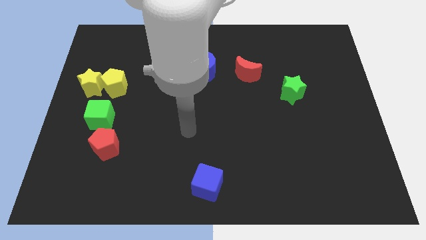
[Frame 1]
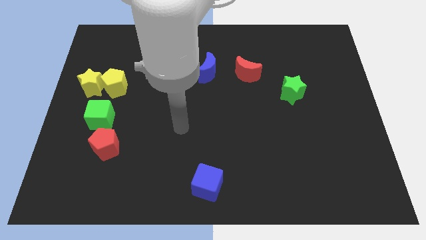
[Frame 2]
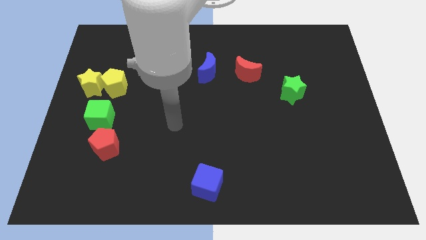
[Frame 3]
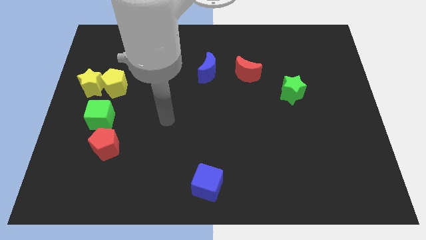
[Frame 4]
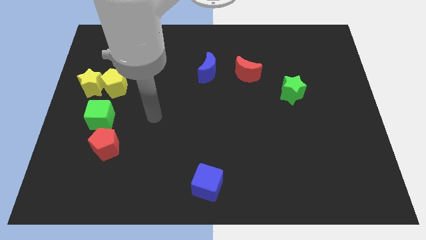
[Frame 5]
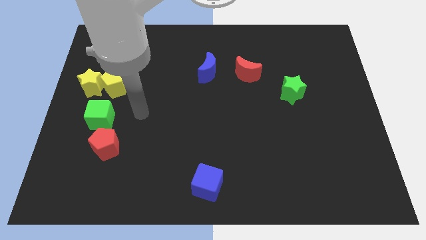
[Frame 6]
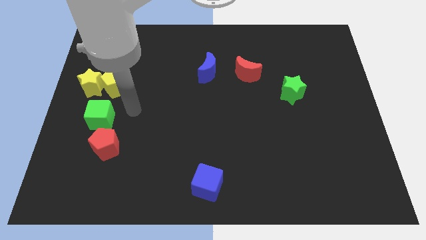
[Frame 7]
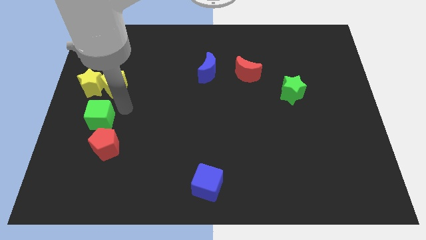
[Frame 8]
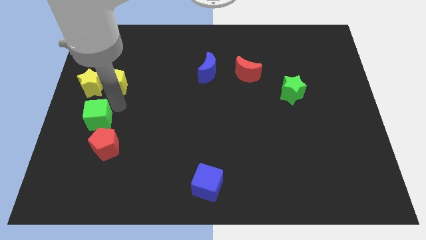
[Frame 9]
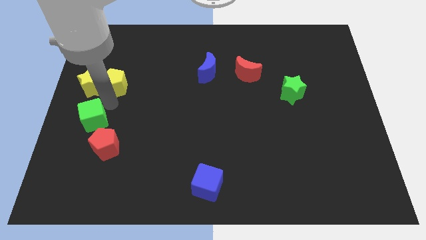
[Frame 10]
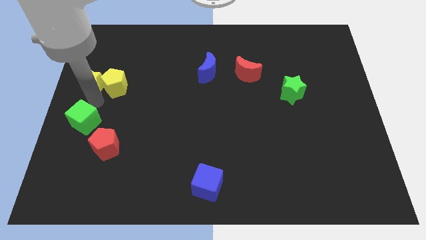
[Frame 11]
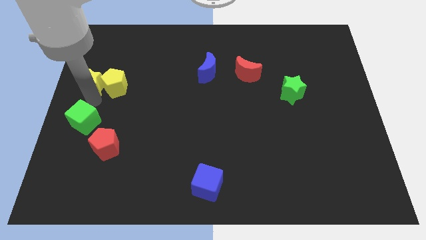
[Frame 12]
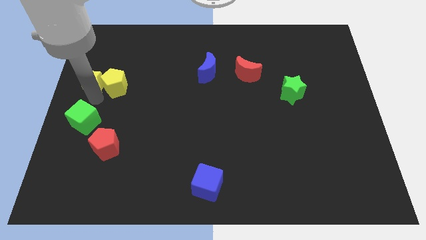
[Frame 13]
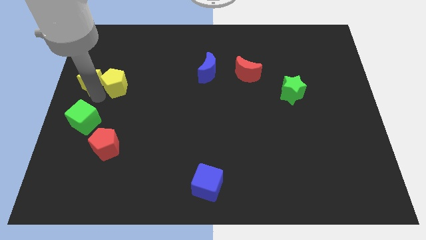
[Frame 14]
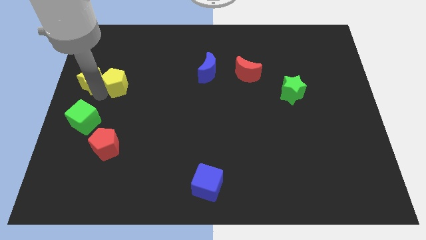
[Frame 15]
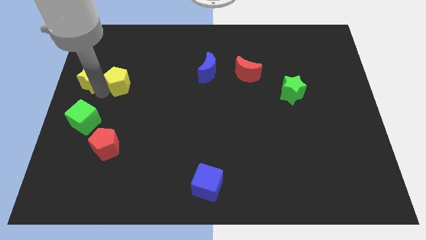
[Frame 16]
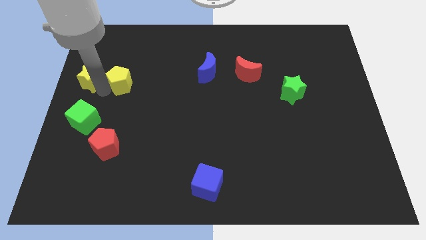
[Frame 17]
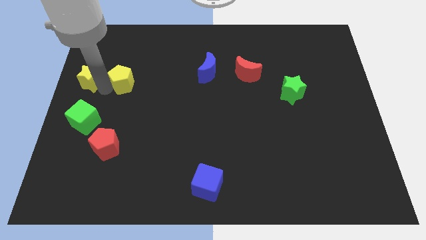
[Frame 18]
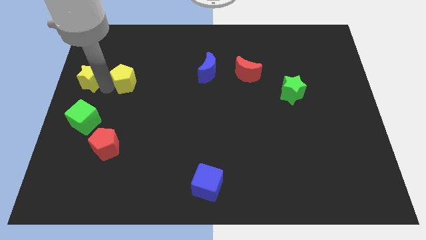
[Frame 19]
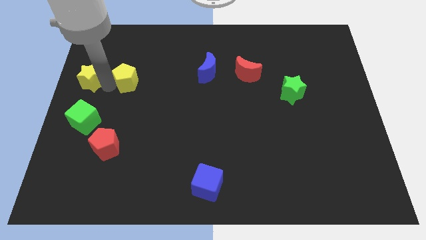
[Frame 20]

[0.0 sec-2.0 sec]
move the yellow pentagon away from the yellow star and green cube

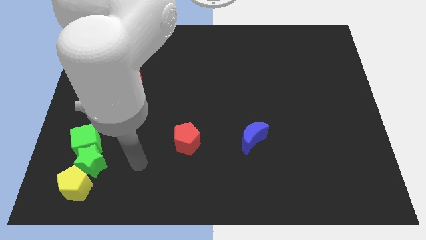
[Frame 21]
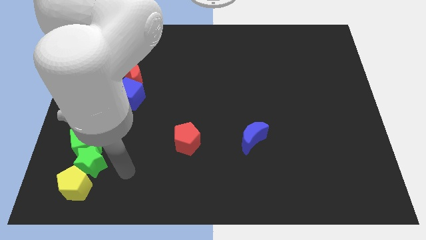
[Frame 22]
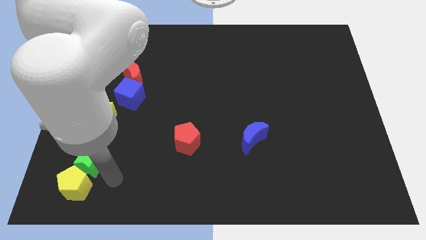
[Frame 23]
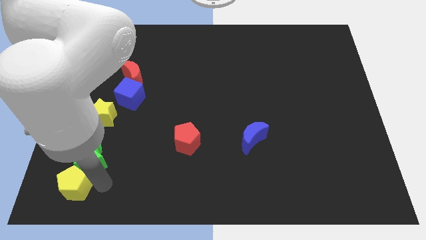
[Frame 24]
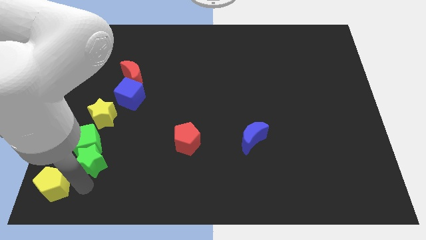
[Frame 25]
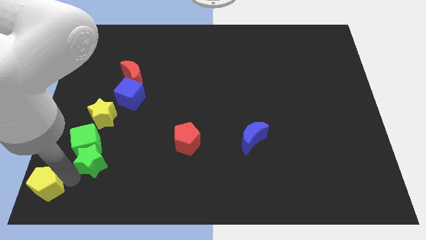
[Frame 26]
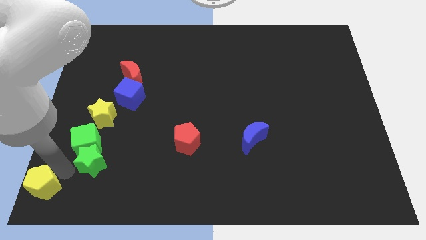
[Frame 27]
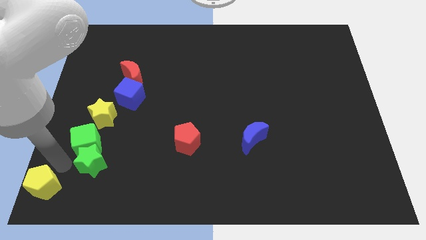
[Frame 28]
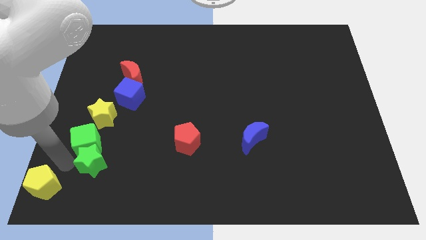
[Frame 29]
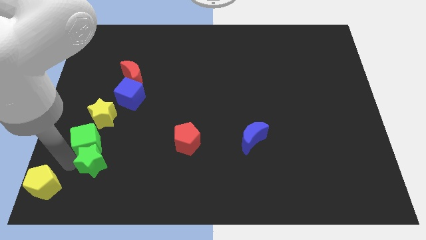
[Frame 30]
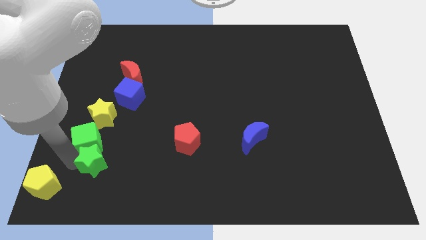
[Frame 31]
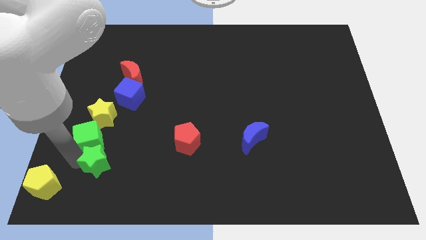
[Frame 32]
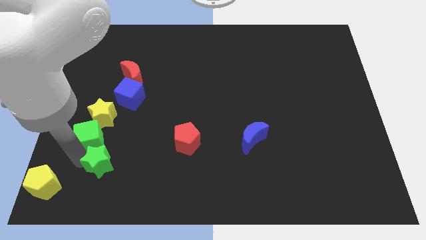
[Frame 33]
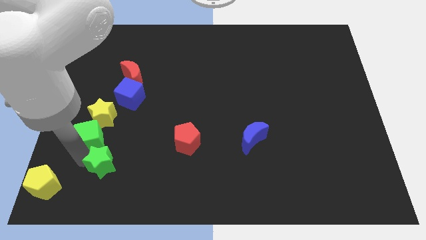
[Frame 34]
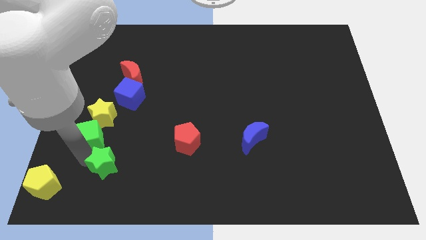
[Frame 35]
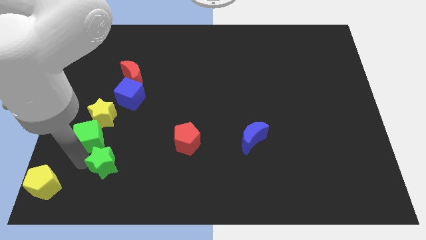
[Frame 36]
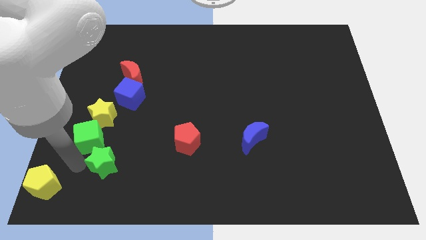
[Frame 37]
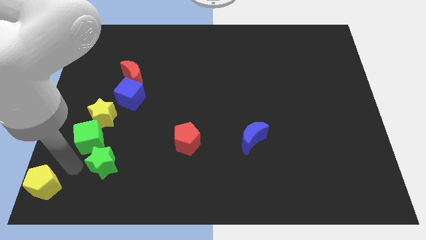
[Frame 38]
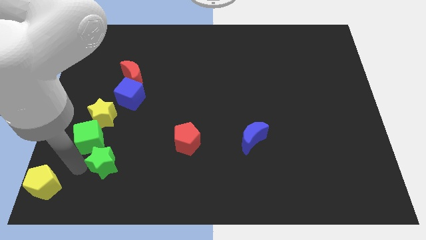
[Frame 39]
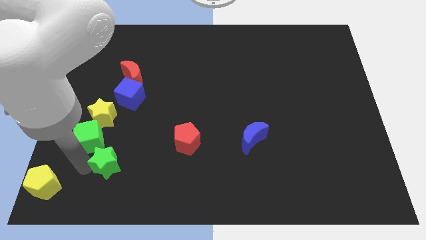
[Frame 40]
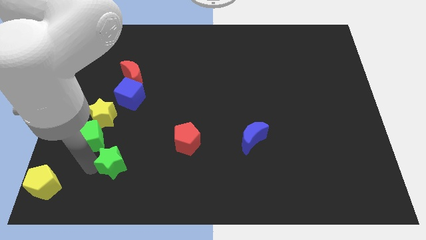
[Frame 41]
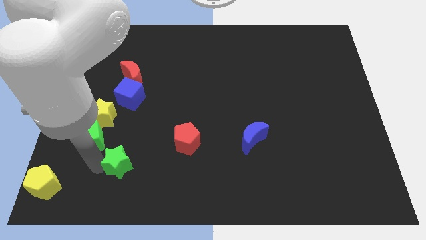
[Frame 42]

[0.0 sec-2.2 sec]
separate the green star from the yellow pentagon and green cube

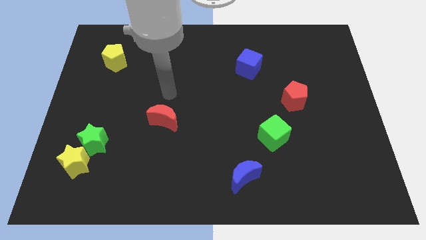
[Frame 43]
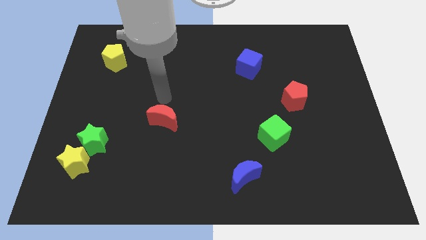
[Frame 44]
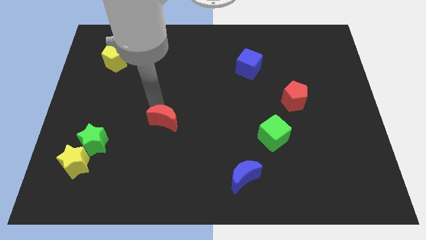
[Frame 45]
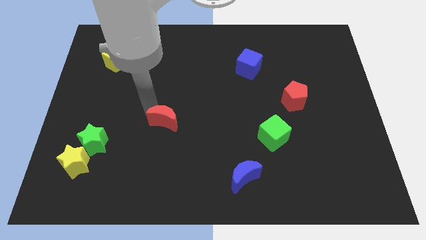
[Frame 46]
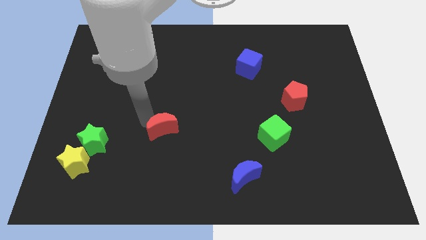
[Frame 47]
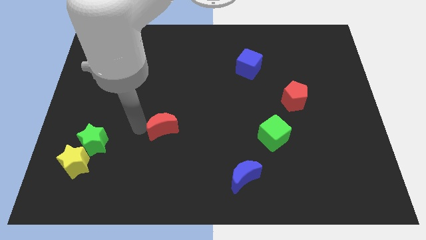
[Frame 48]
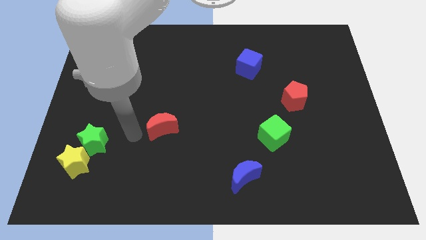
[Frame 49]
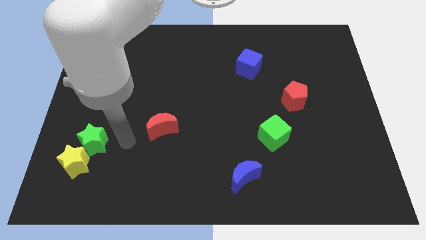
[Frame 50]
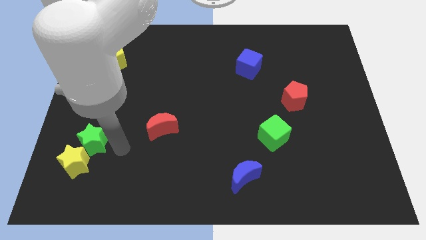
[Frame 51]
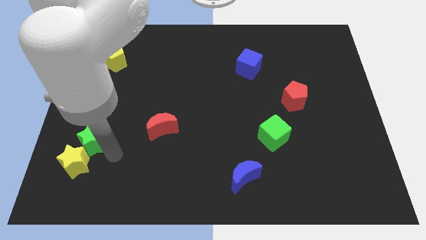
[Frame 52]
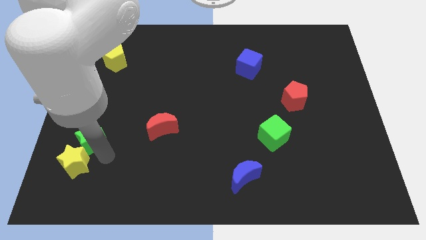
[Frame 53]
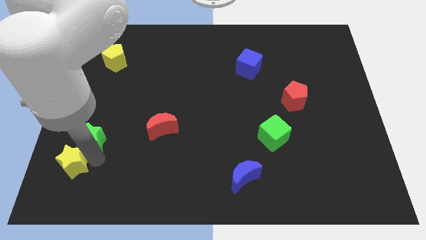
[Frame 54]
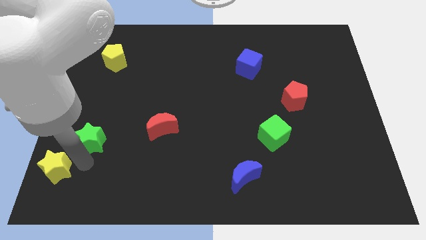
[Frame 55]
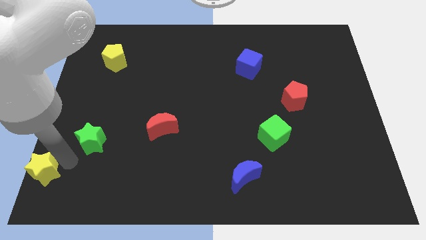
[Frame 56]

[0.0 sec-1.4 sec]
separate the green star from the yellow star

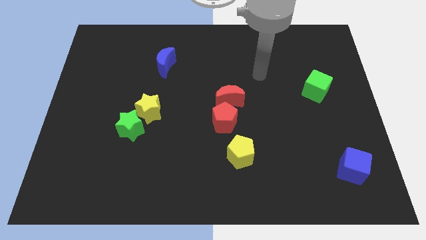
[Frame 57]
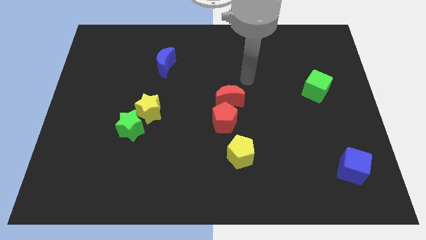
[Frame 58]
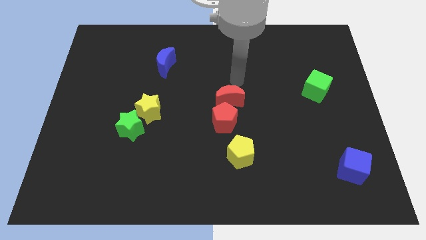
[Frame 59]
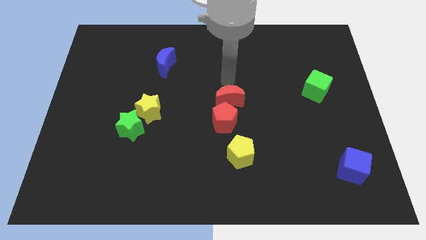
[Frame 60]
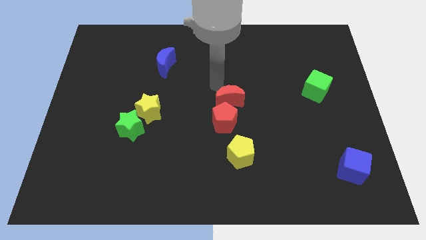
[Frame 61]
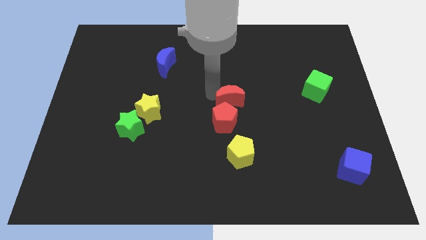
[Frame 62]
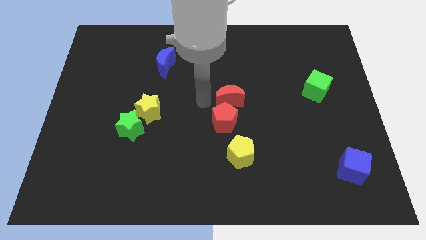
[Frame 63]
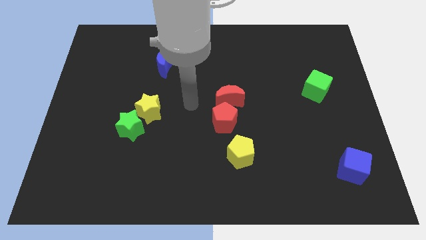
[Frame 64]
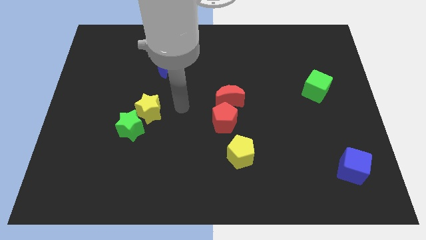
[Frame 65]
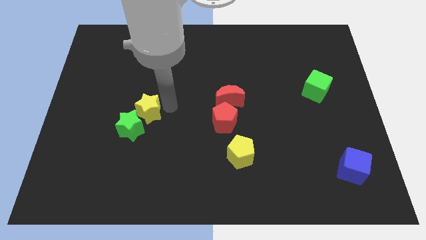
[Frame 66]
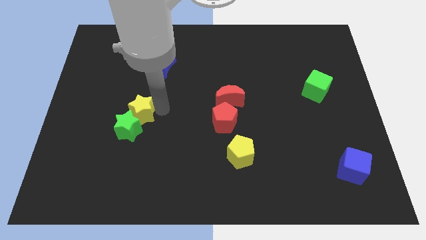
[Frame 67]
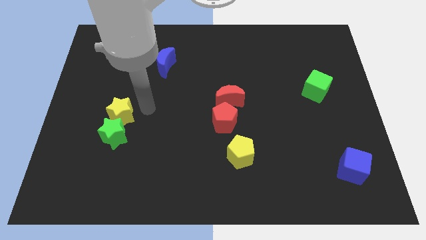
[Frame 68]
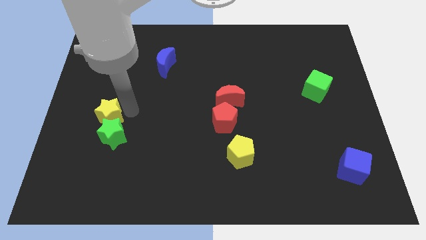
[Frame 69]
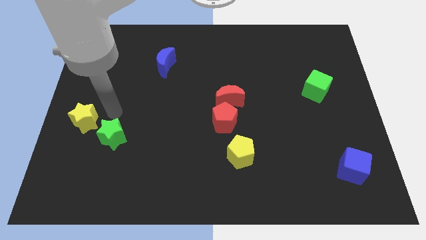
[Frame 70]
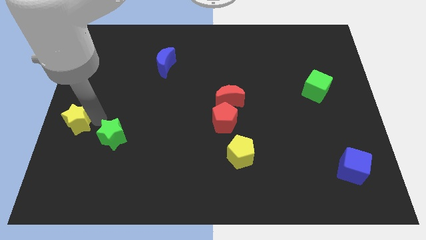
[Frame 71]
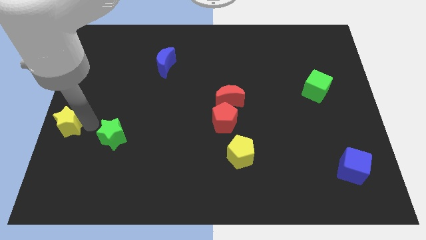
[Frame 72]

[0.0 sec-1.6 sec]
pull the green star apart from the yellow star

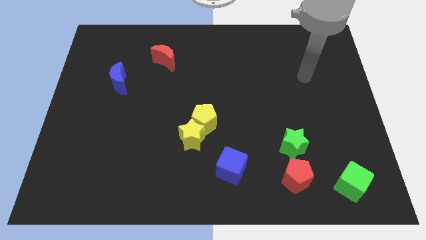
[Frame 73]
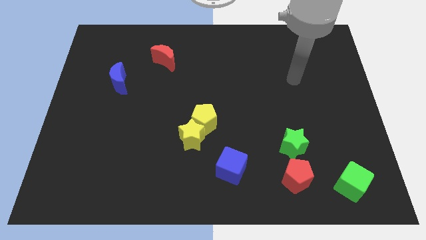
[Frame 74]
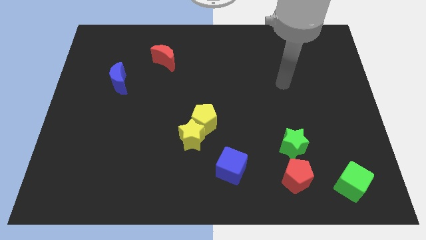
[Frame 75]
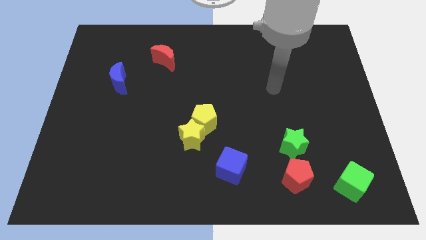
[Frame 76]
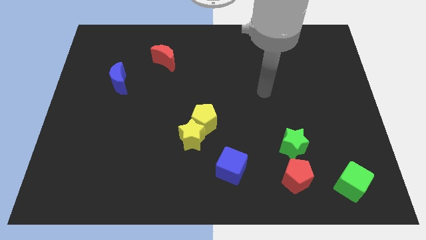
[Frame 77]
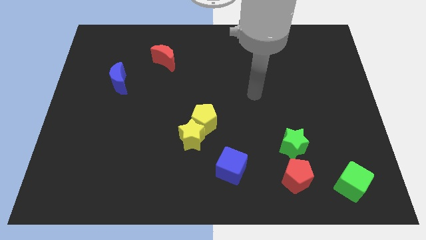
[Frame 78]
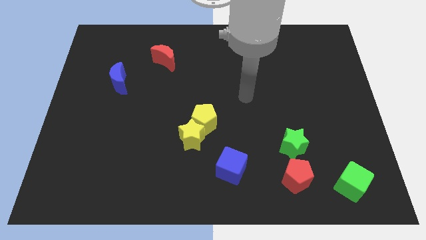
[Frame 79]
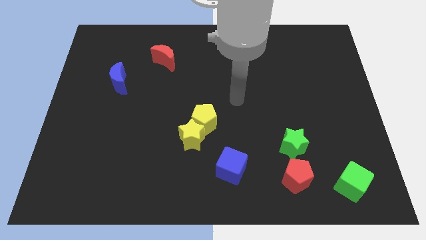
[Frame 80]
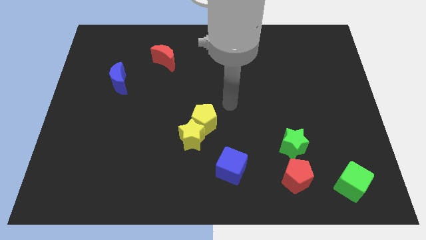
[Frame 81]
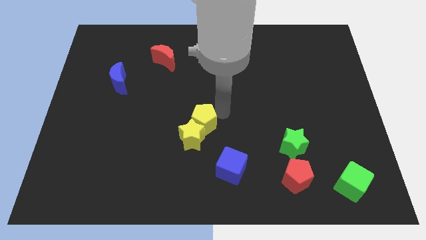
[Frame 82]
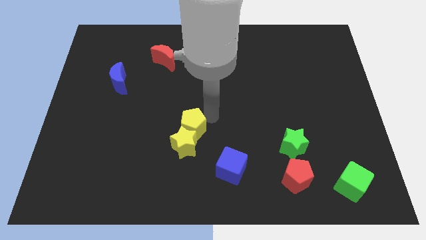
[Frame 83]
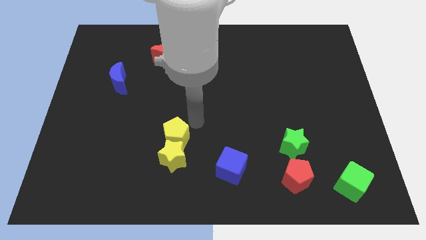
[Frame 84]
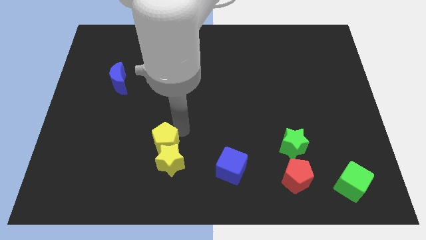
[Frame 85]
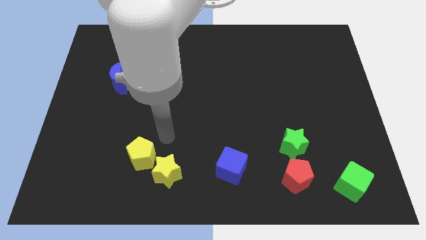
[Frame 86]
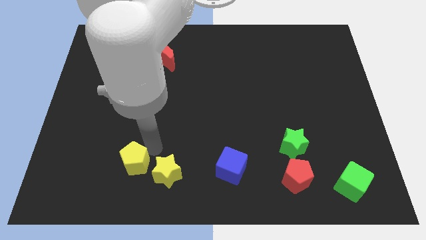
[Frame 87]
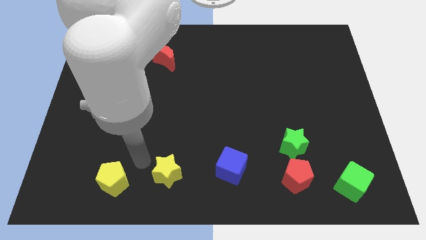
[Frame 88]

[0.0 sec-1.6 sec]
separate the yellow star from the yellow pentagon

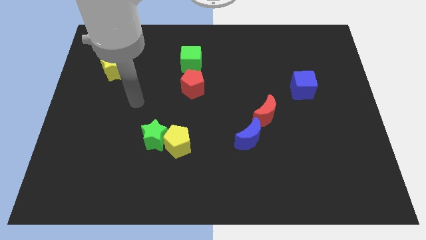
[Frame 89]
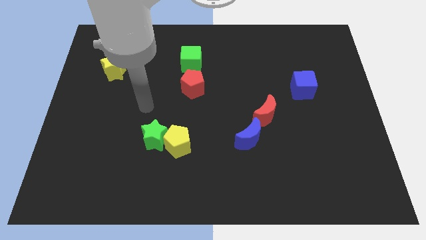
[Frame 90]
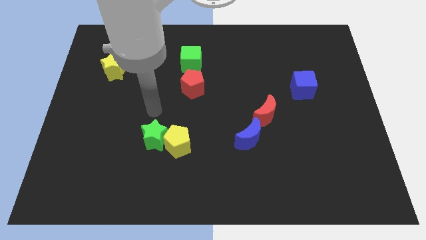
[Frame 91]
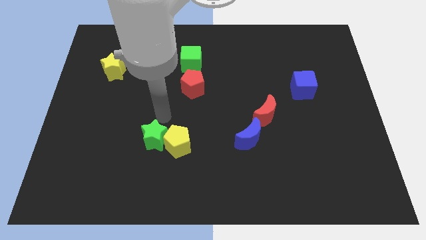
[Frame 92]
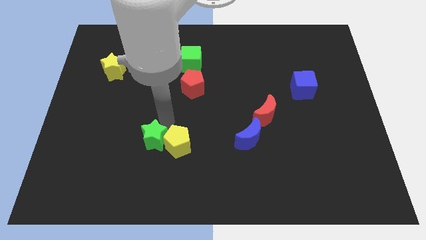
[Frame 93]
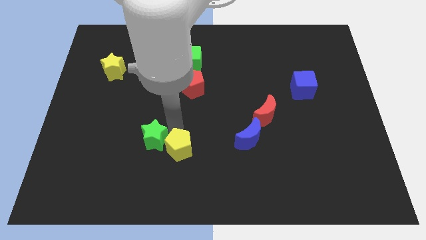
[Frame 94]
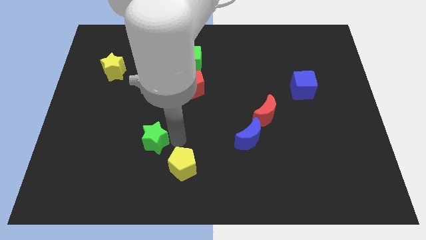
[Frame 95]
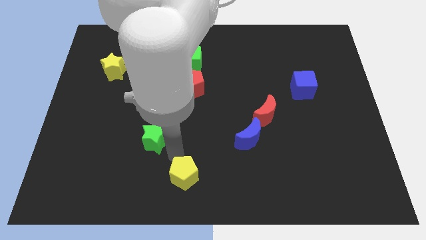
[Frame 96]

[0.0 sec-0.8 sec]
separate the green star from the yellow pentagon
